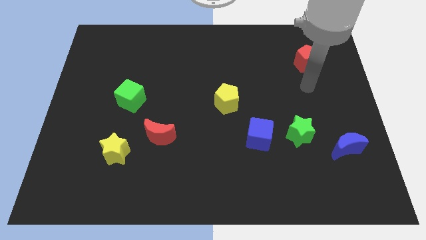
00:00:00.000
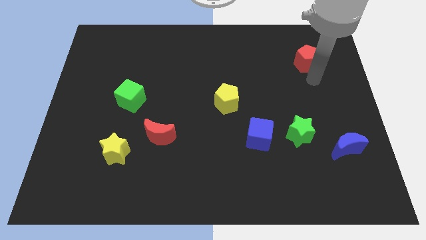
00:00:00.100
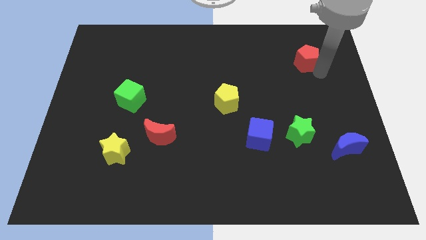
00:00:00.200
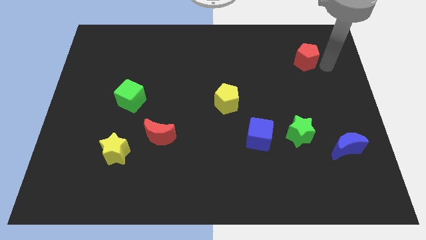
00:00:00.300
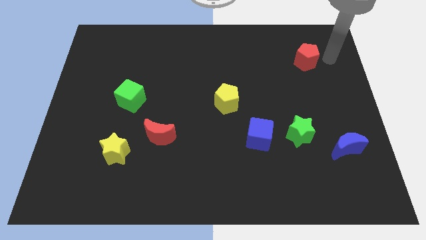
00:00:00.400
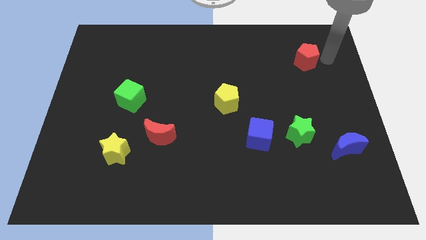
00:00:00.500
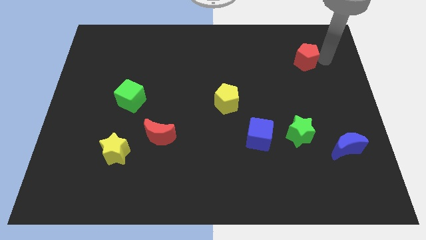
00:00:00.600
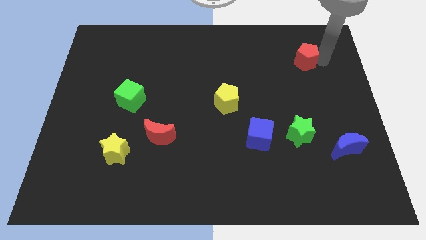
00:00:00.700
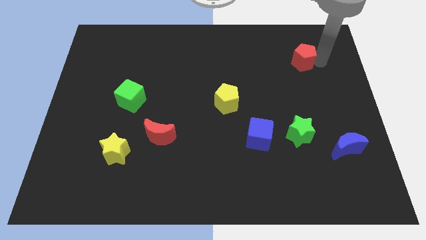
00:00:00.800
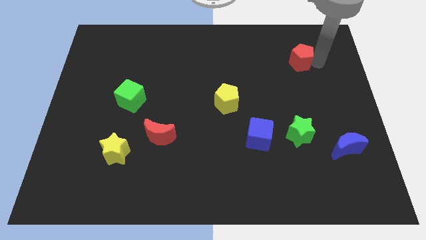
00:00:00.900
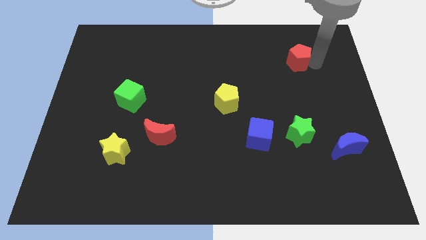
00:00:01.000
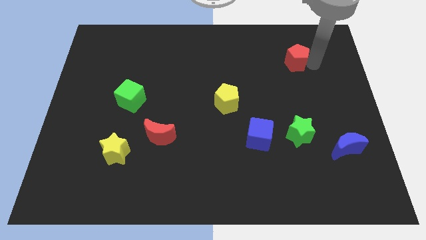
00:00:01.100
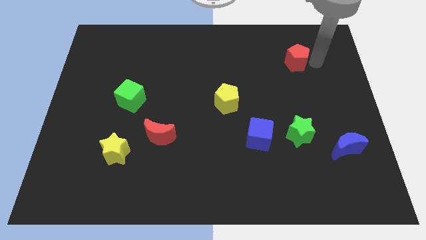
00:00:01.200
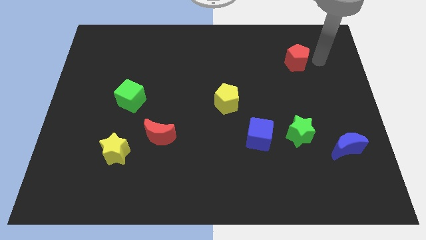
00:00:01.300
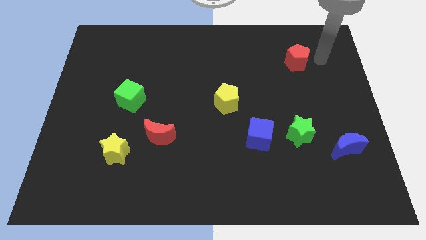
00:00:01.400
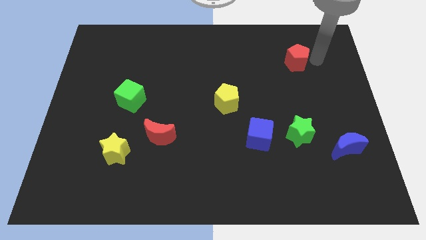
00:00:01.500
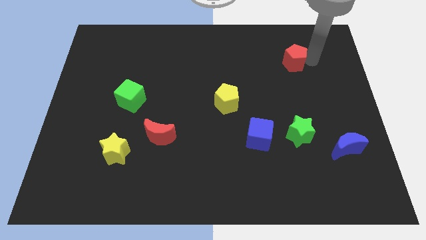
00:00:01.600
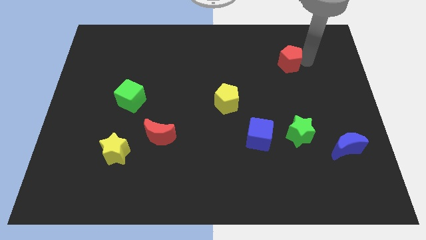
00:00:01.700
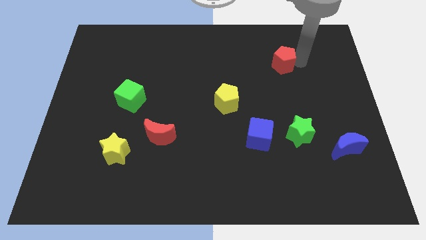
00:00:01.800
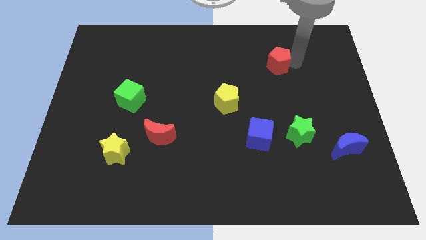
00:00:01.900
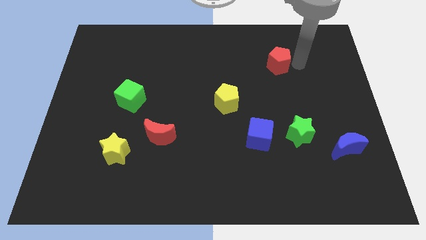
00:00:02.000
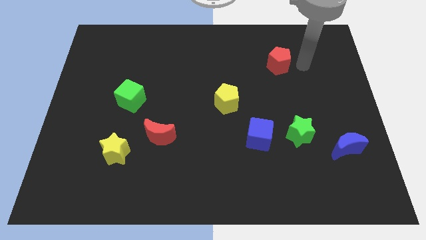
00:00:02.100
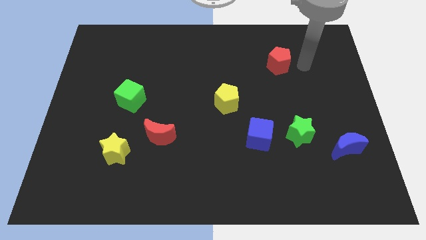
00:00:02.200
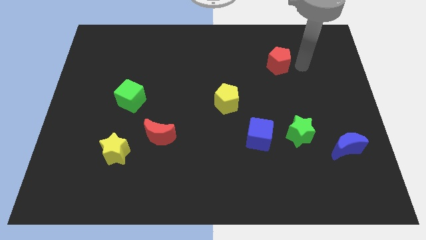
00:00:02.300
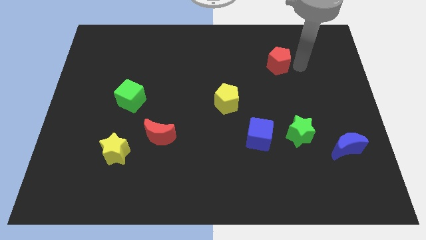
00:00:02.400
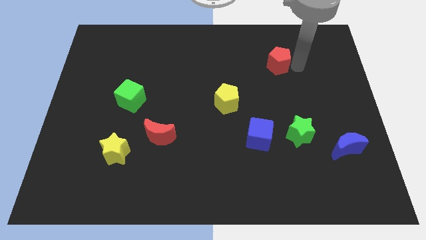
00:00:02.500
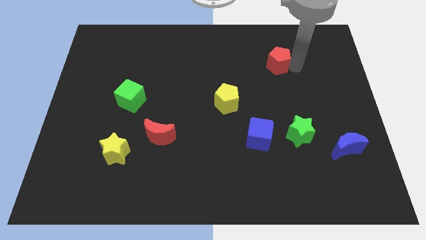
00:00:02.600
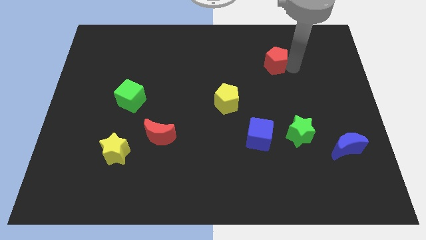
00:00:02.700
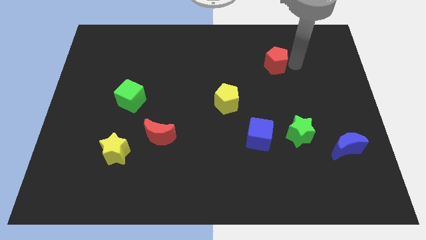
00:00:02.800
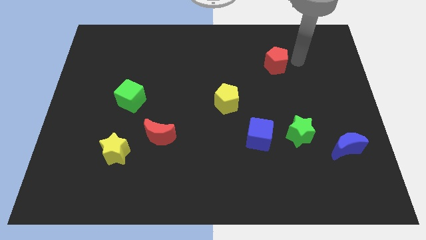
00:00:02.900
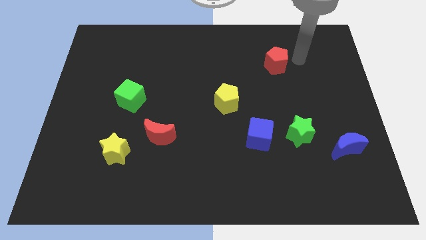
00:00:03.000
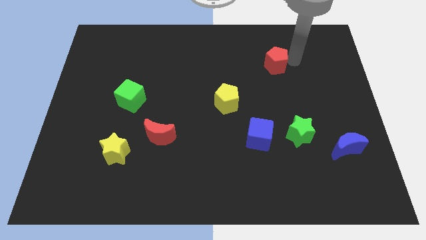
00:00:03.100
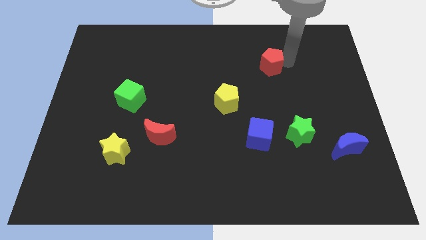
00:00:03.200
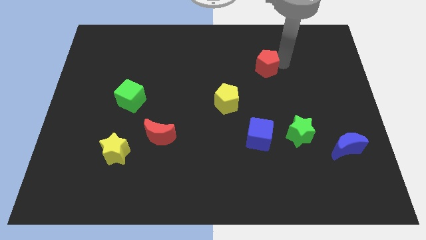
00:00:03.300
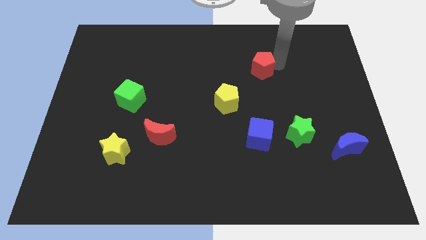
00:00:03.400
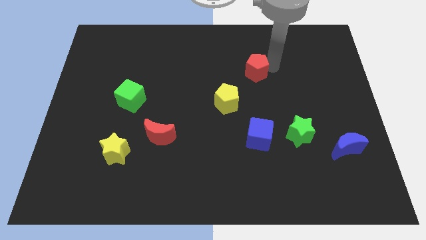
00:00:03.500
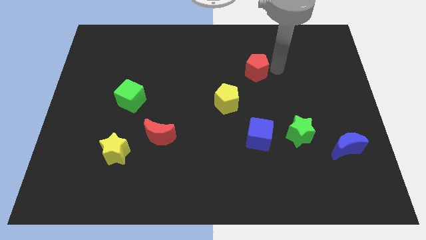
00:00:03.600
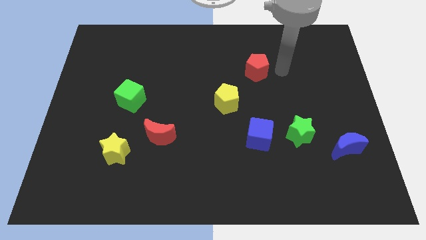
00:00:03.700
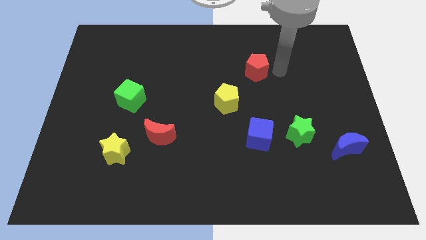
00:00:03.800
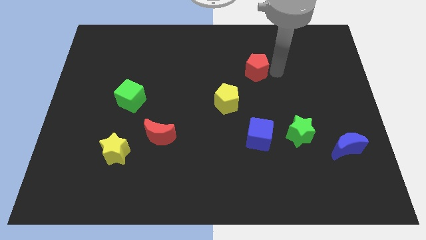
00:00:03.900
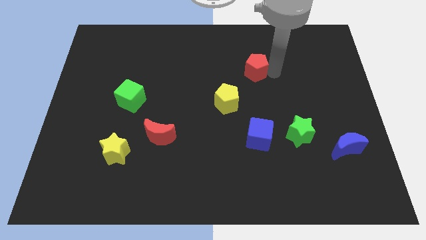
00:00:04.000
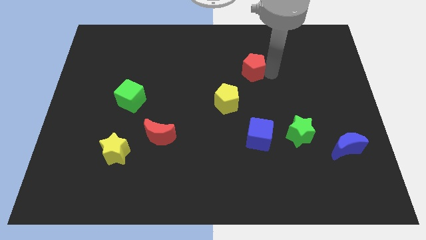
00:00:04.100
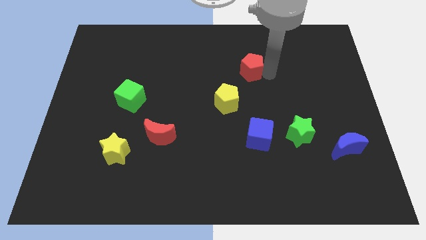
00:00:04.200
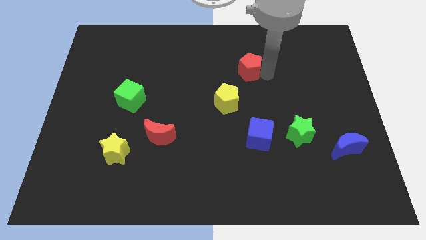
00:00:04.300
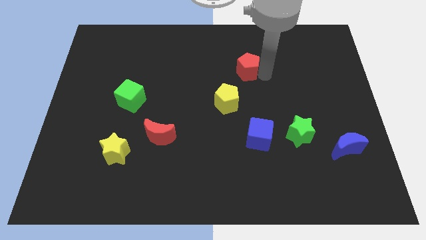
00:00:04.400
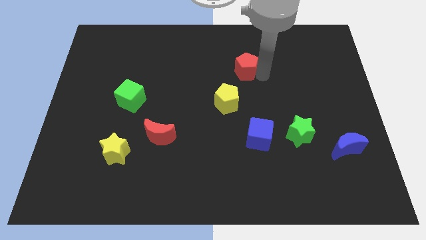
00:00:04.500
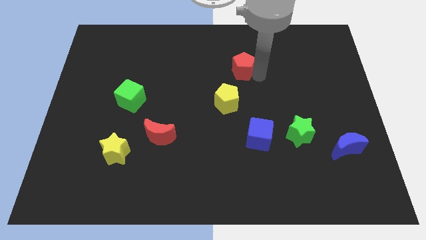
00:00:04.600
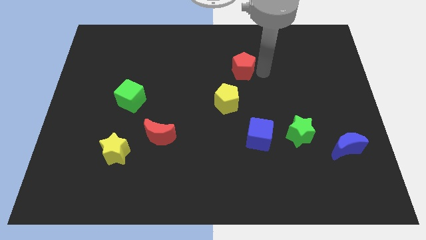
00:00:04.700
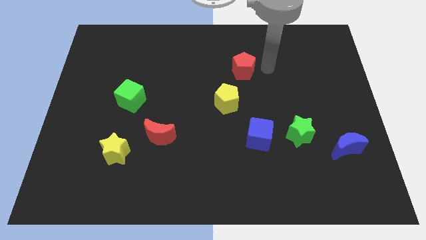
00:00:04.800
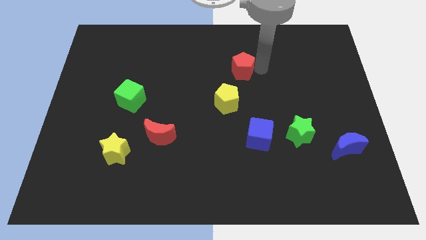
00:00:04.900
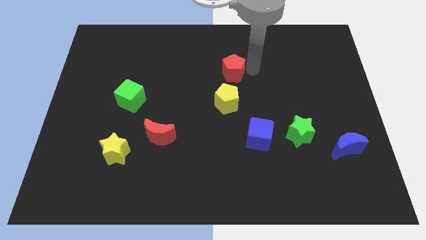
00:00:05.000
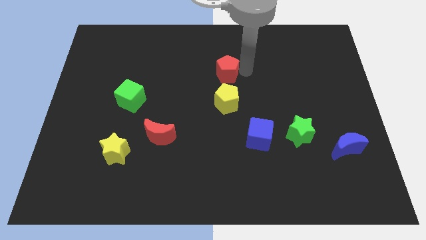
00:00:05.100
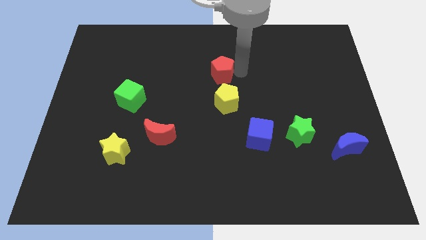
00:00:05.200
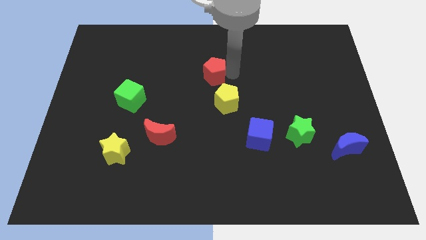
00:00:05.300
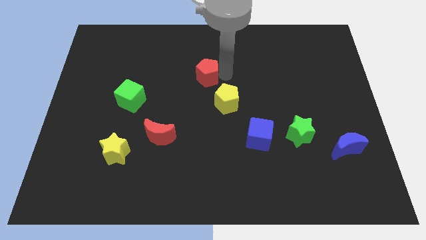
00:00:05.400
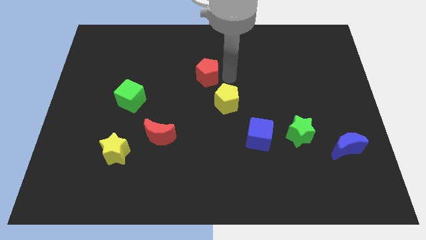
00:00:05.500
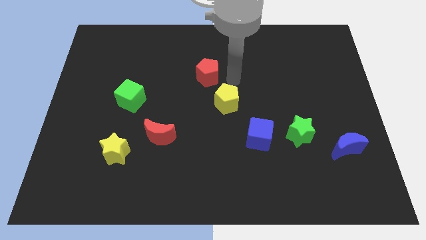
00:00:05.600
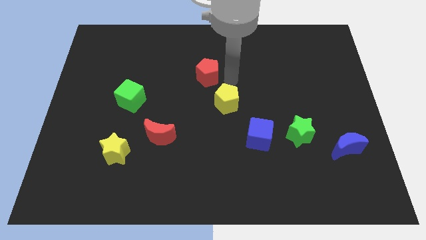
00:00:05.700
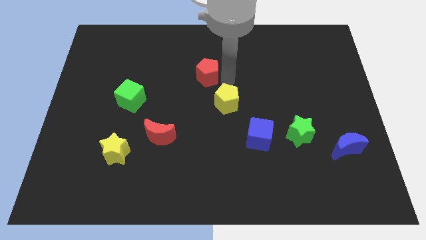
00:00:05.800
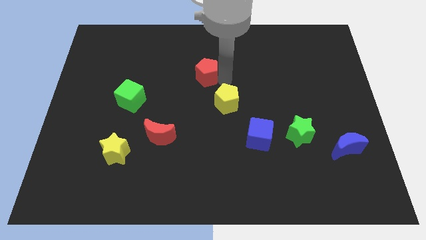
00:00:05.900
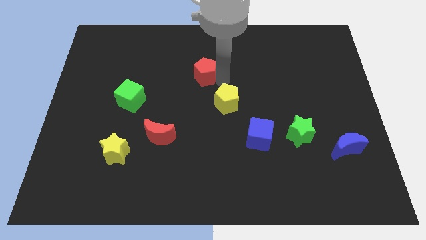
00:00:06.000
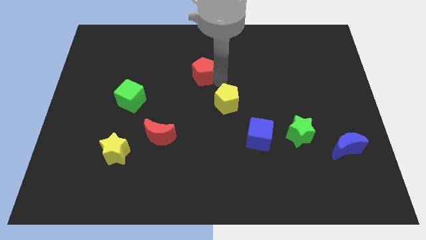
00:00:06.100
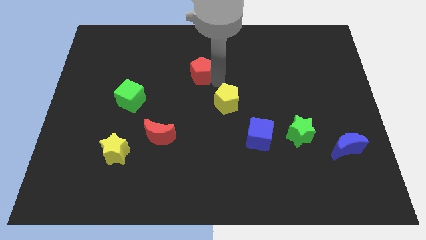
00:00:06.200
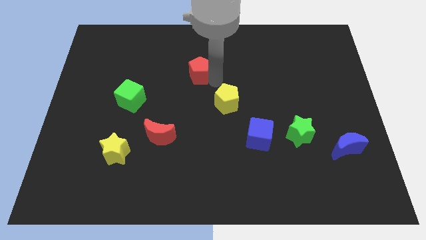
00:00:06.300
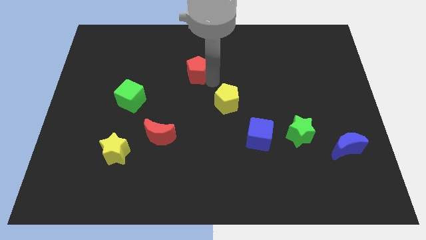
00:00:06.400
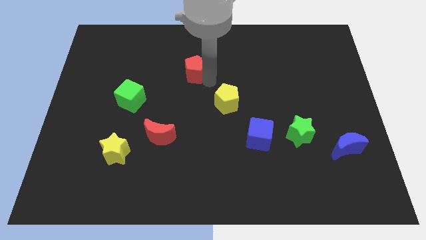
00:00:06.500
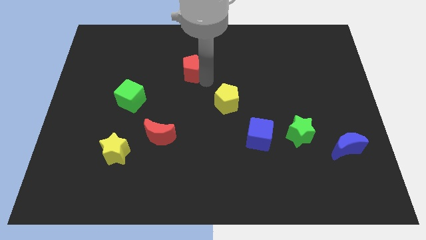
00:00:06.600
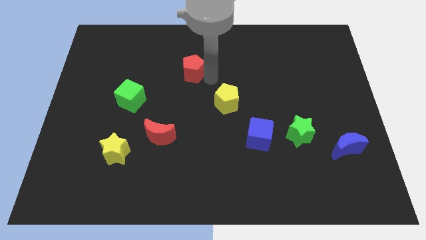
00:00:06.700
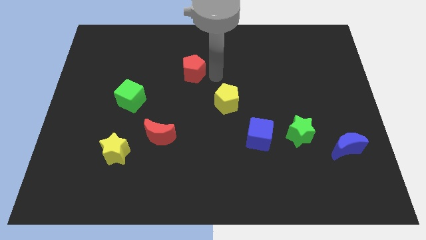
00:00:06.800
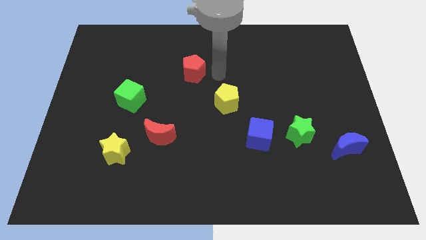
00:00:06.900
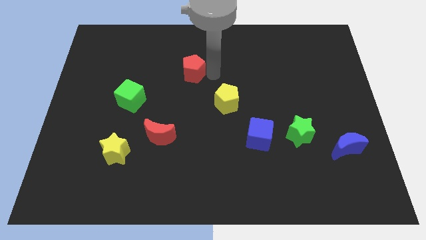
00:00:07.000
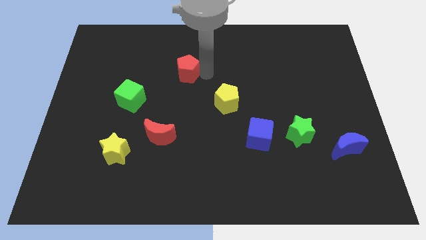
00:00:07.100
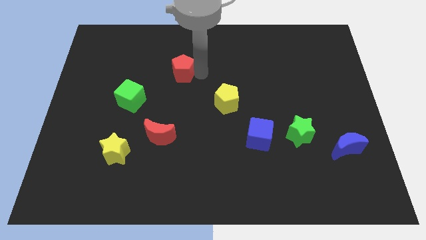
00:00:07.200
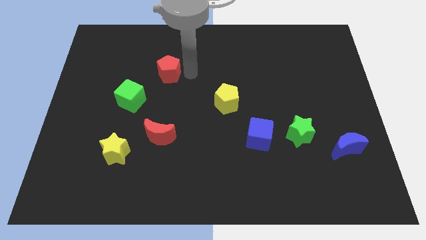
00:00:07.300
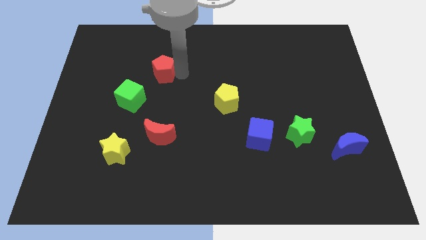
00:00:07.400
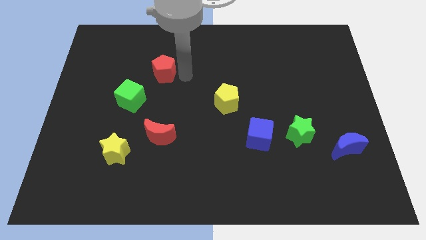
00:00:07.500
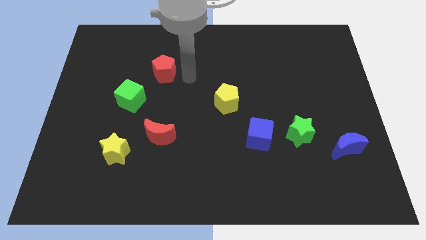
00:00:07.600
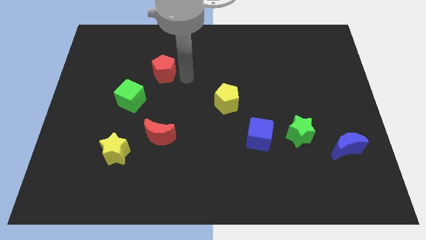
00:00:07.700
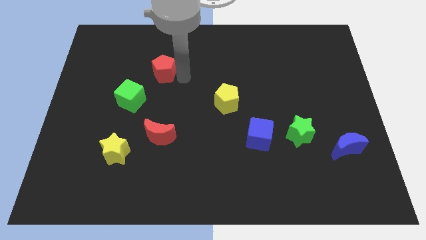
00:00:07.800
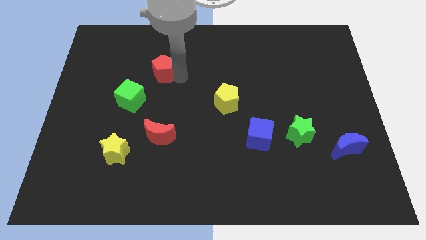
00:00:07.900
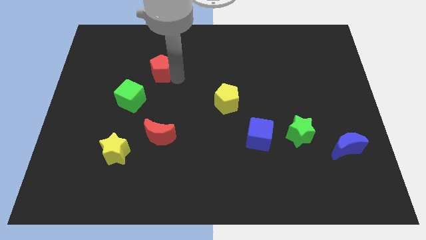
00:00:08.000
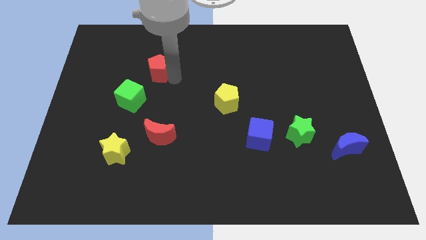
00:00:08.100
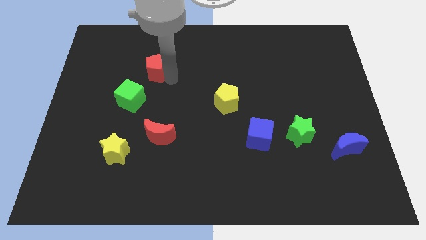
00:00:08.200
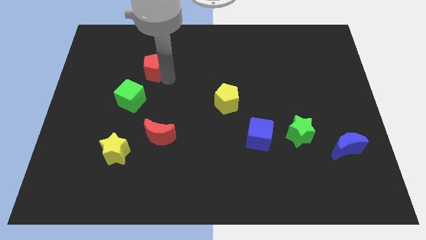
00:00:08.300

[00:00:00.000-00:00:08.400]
push the red pentagon to the top side of the green cube
